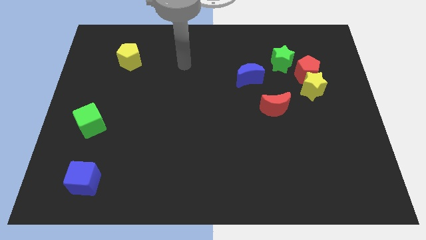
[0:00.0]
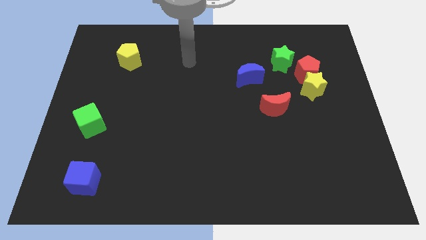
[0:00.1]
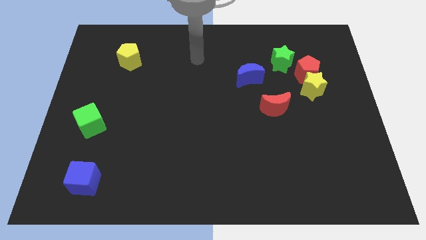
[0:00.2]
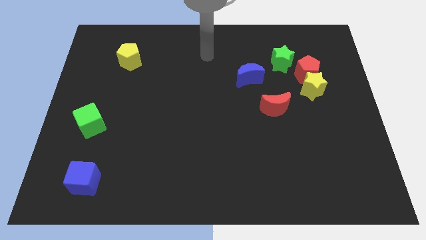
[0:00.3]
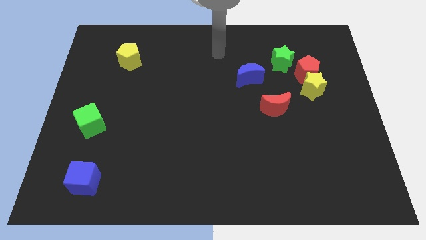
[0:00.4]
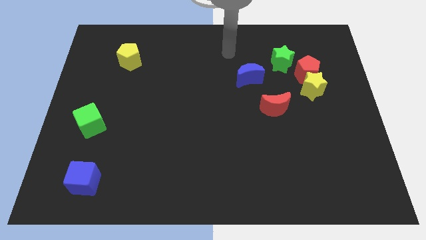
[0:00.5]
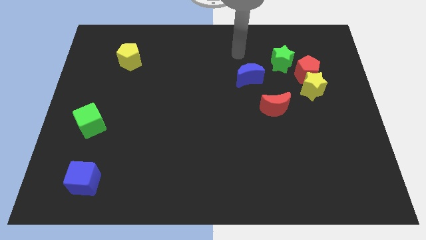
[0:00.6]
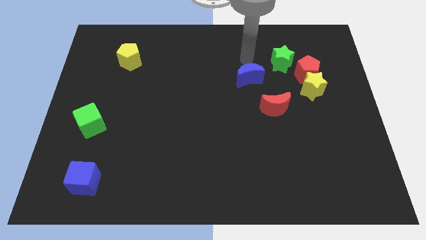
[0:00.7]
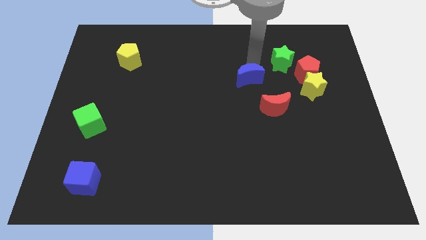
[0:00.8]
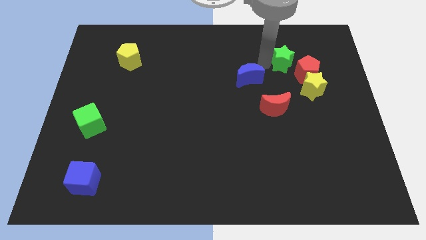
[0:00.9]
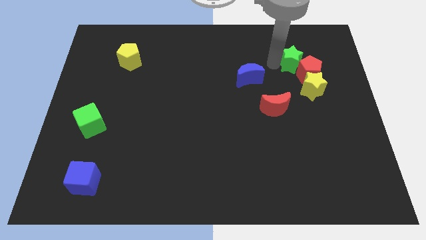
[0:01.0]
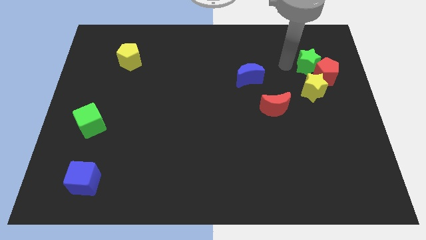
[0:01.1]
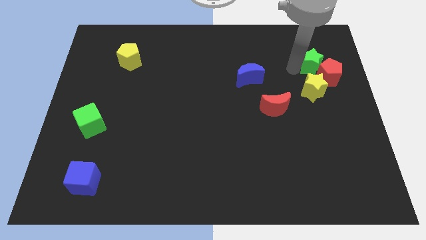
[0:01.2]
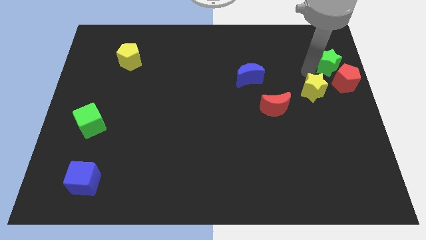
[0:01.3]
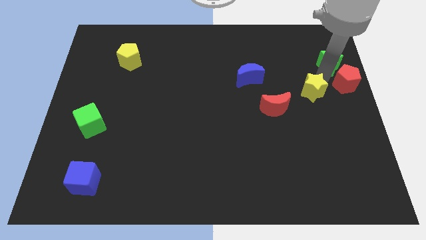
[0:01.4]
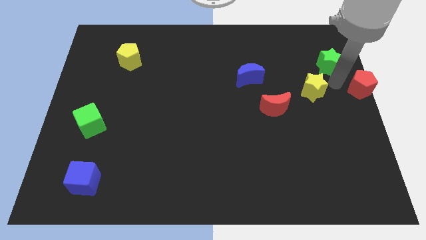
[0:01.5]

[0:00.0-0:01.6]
move the yellow star away from the red pentagon

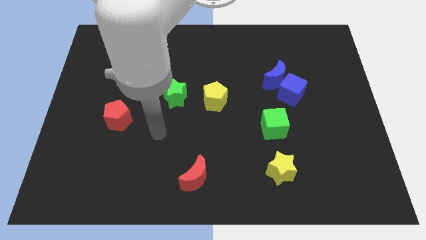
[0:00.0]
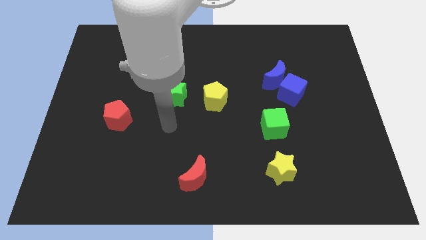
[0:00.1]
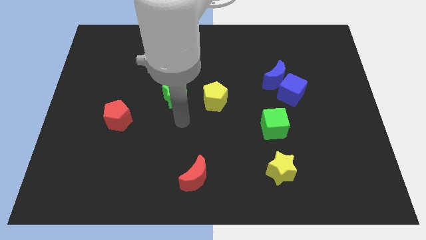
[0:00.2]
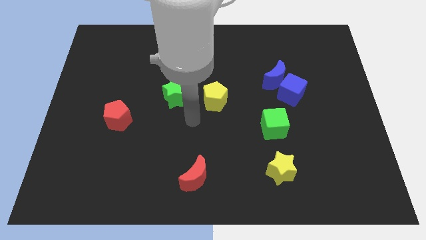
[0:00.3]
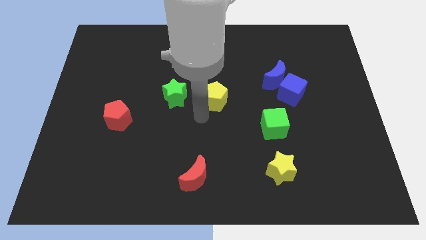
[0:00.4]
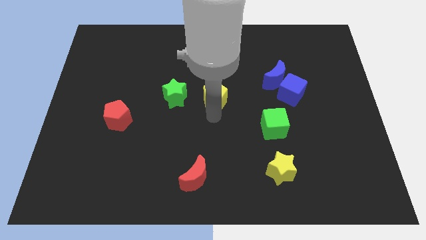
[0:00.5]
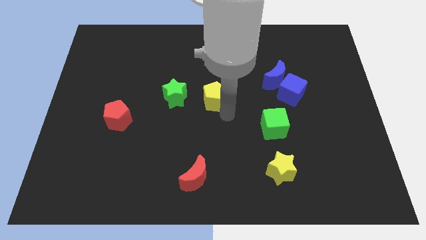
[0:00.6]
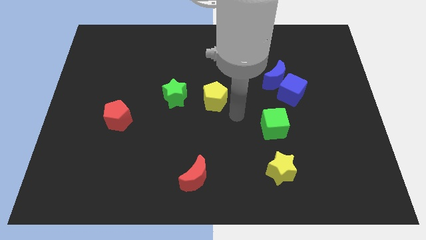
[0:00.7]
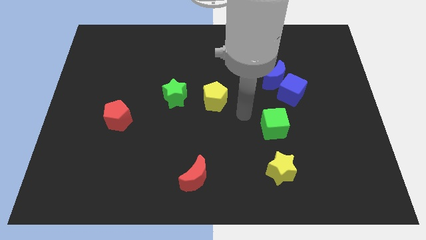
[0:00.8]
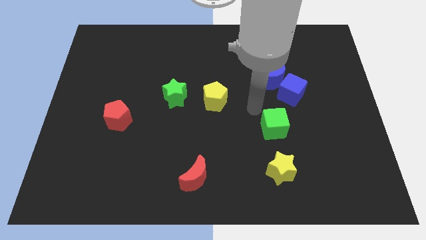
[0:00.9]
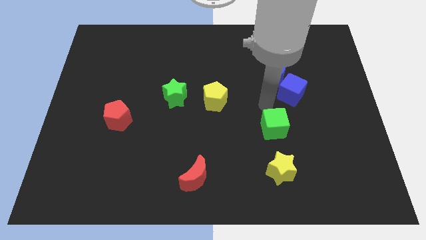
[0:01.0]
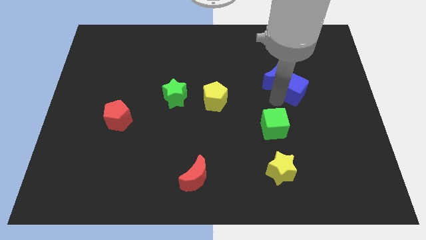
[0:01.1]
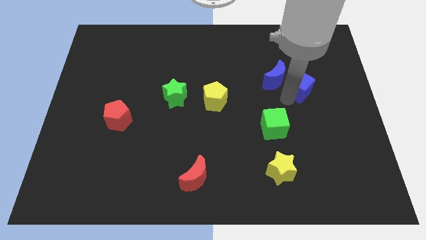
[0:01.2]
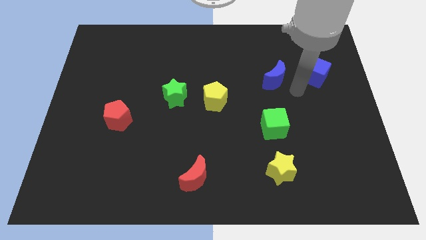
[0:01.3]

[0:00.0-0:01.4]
pull the blue moon apart from the blue cube

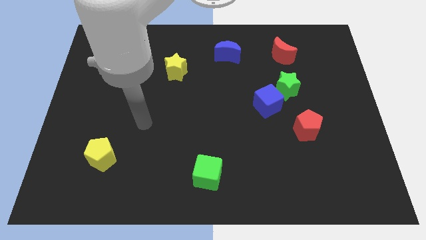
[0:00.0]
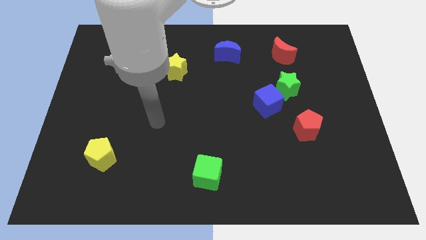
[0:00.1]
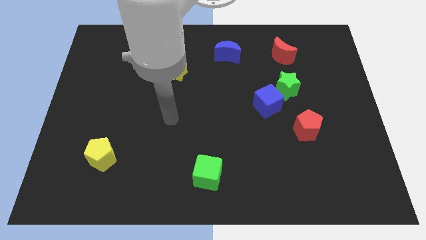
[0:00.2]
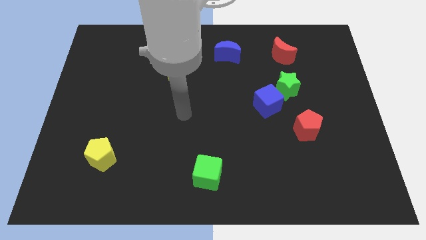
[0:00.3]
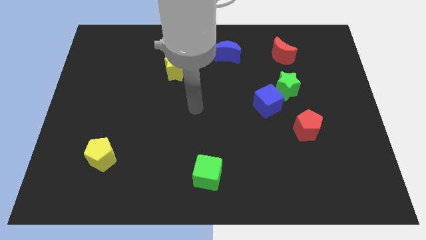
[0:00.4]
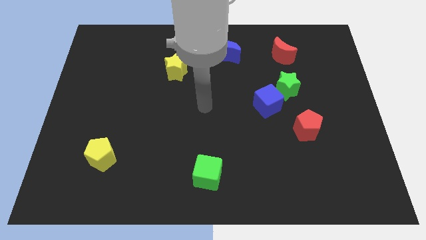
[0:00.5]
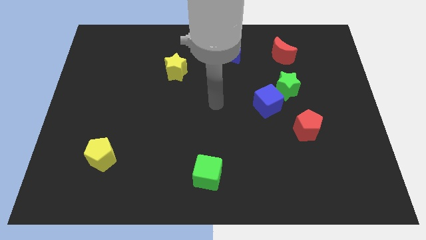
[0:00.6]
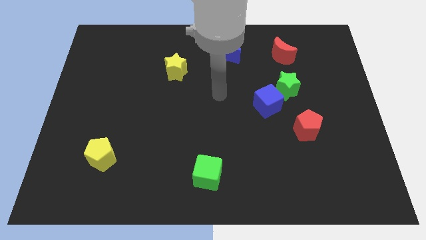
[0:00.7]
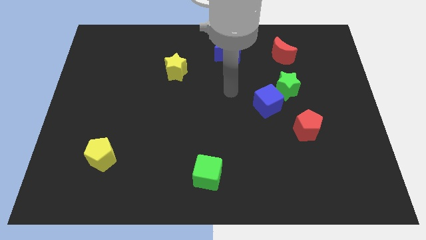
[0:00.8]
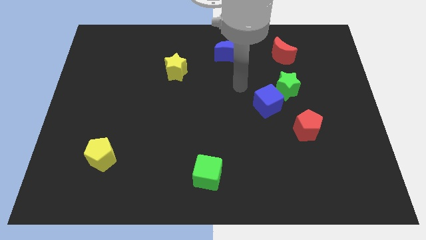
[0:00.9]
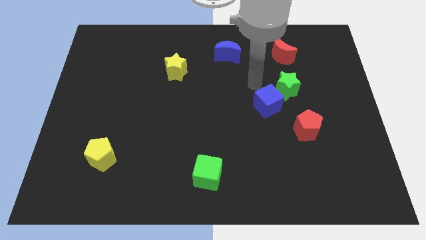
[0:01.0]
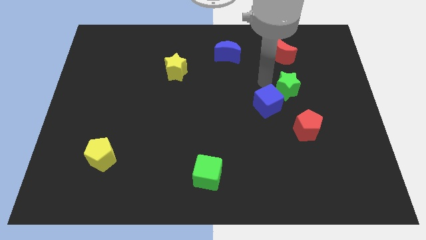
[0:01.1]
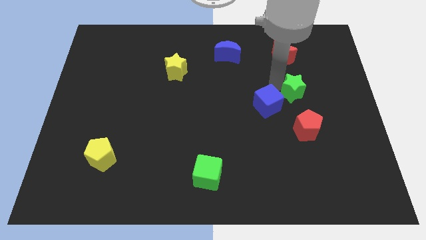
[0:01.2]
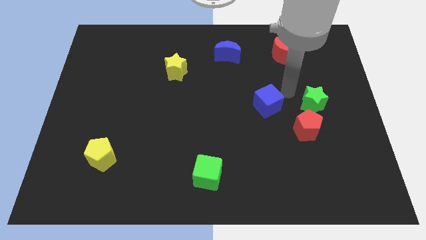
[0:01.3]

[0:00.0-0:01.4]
pull the blue cube apart from the green star

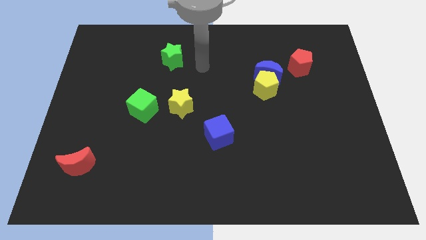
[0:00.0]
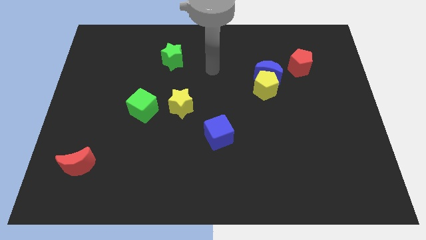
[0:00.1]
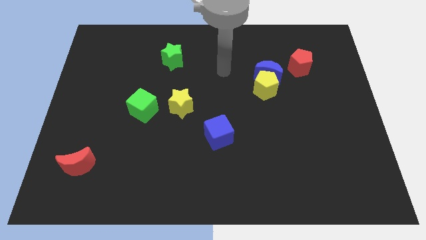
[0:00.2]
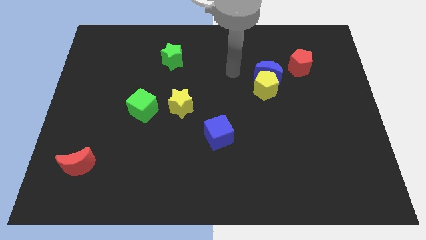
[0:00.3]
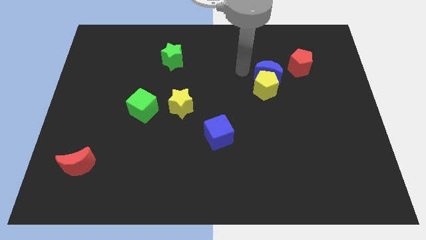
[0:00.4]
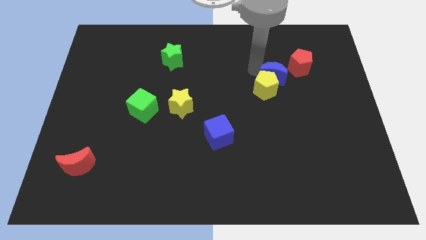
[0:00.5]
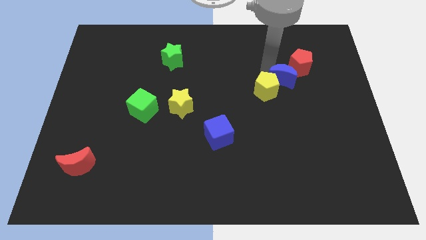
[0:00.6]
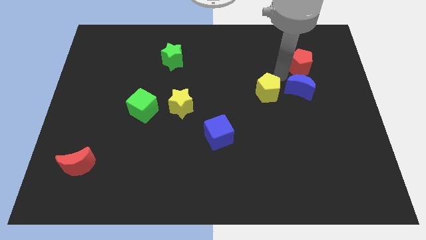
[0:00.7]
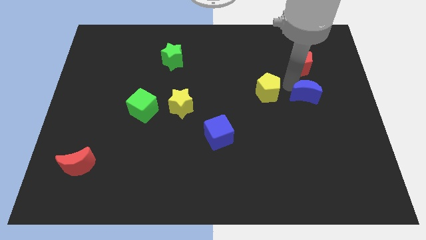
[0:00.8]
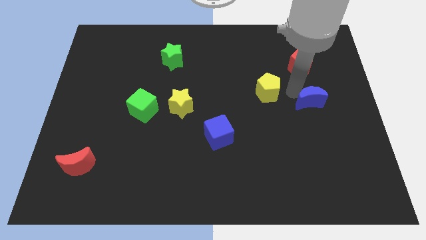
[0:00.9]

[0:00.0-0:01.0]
move the yellow pentagon away from the blue moon

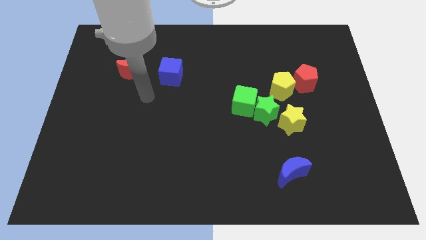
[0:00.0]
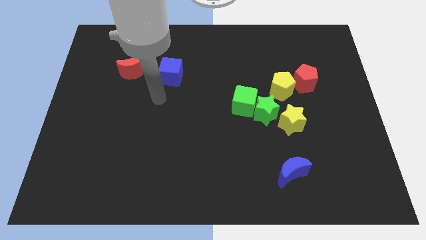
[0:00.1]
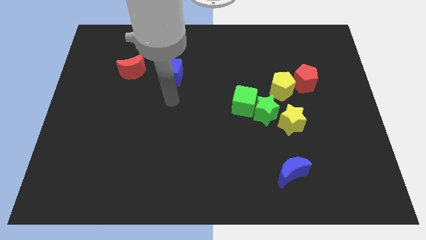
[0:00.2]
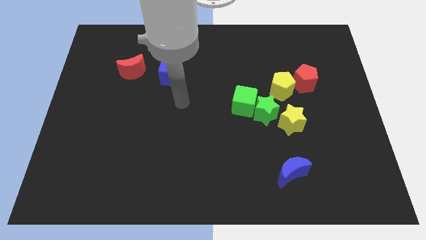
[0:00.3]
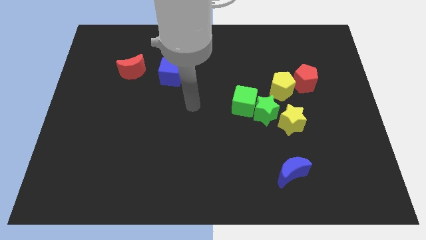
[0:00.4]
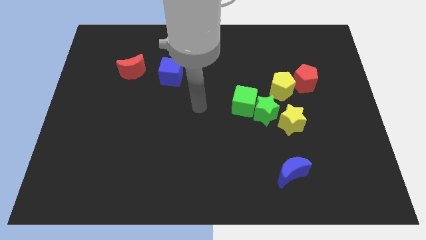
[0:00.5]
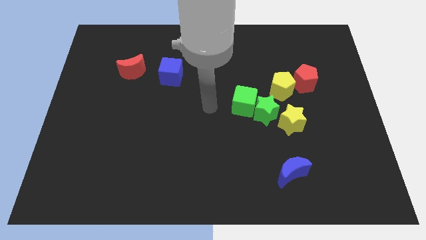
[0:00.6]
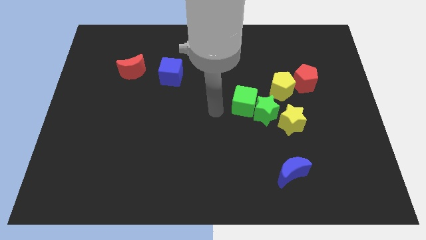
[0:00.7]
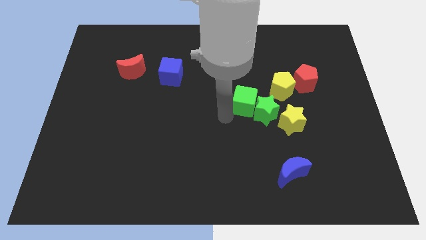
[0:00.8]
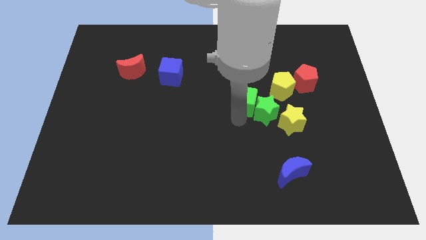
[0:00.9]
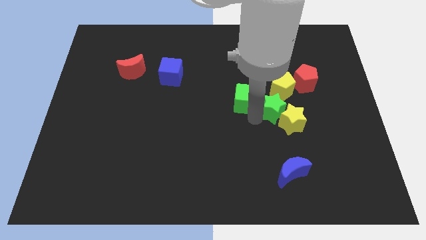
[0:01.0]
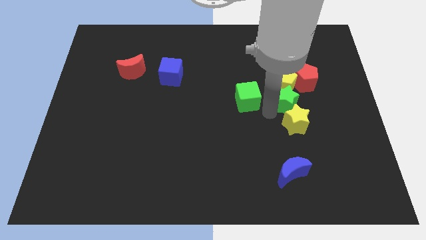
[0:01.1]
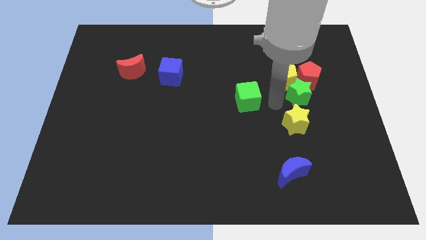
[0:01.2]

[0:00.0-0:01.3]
separate the green cube from the green star

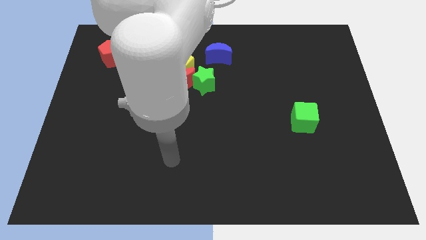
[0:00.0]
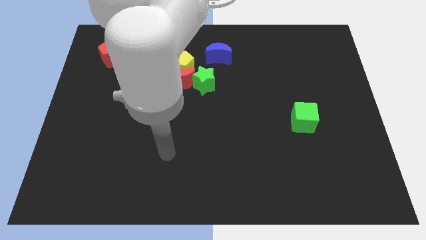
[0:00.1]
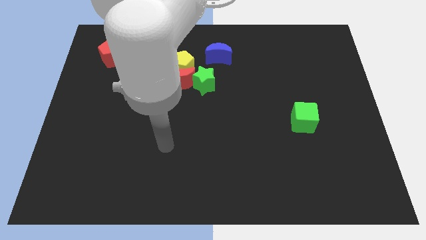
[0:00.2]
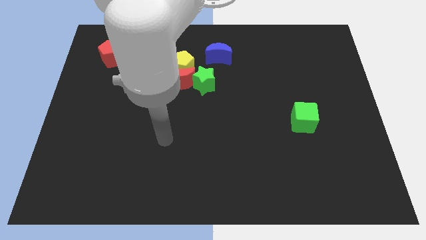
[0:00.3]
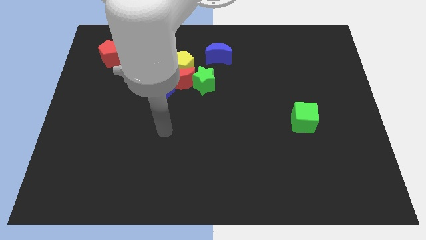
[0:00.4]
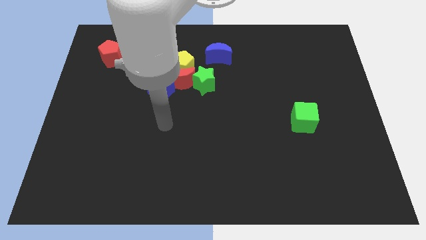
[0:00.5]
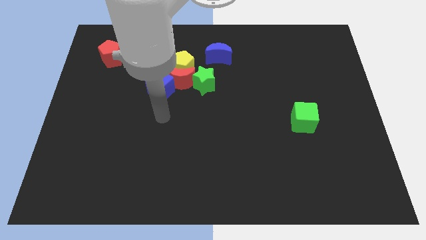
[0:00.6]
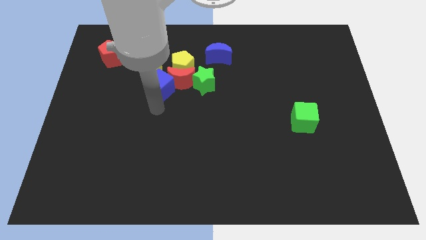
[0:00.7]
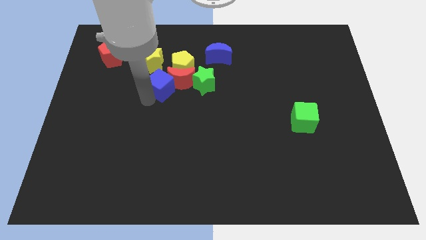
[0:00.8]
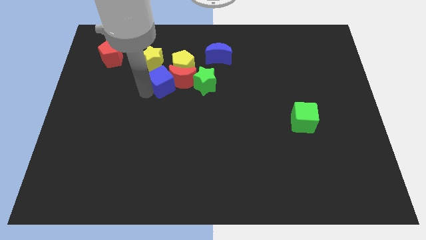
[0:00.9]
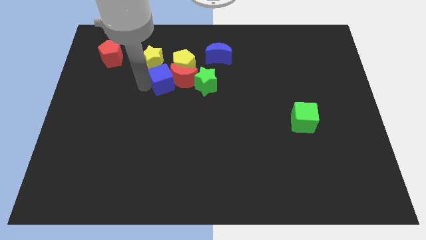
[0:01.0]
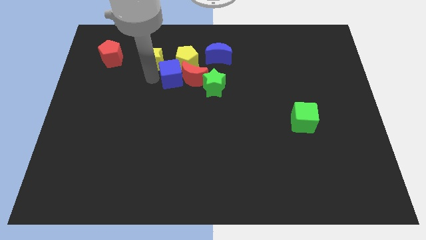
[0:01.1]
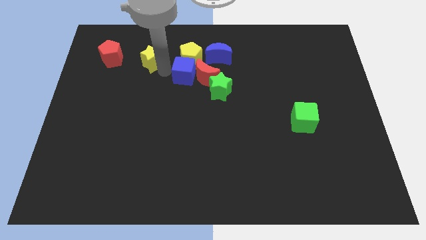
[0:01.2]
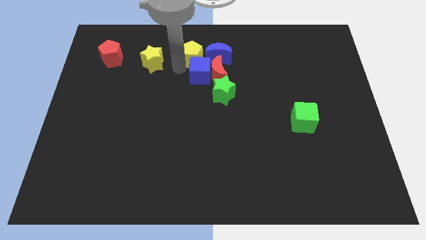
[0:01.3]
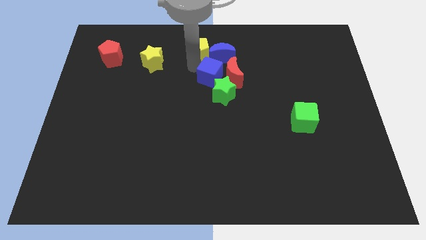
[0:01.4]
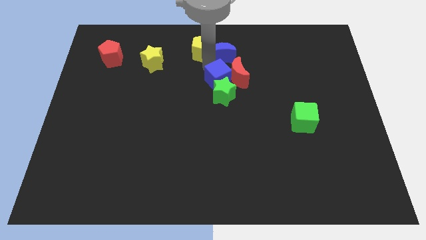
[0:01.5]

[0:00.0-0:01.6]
move the red moon away from the group of blocks

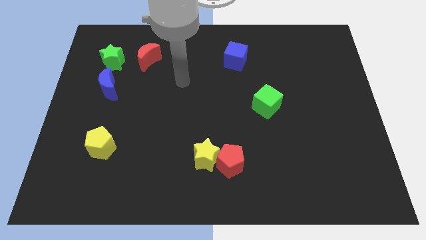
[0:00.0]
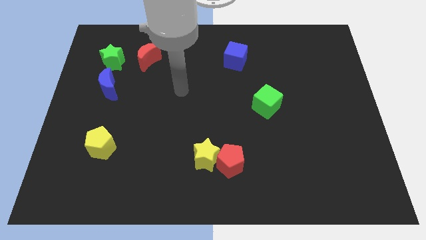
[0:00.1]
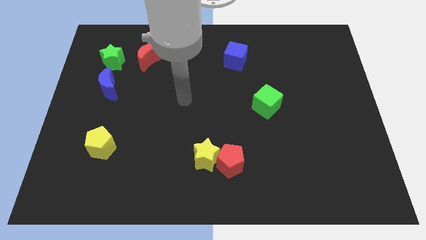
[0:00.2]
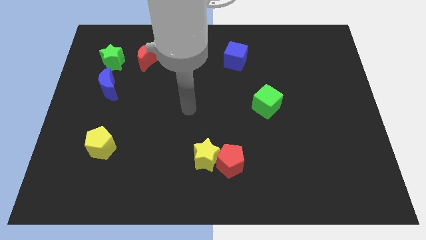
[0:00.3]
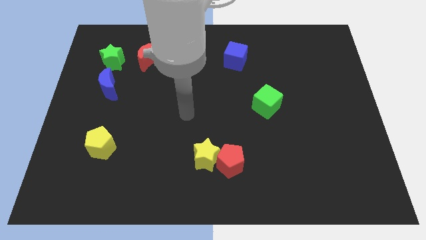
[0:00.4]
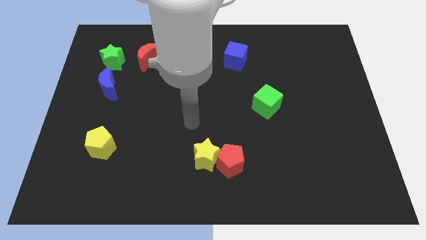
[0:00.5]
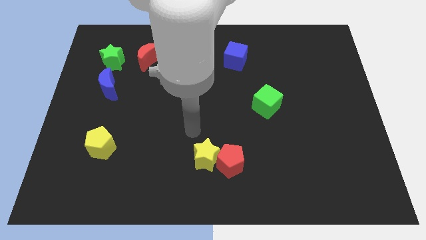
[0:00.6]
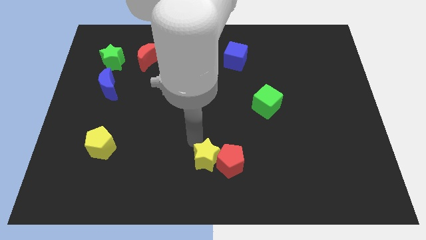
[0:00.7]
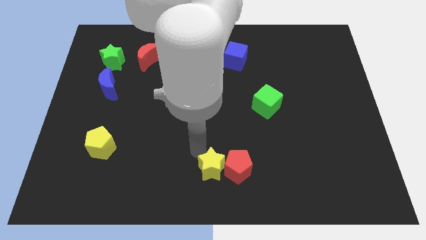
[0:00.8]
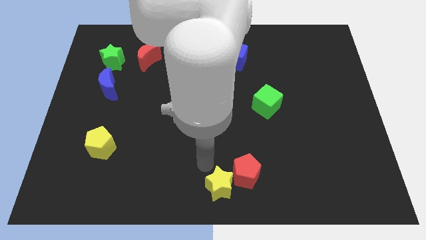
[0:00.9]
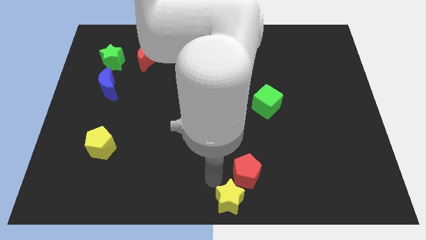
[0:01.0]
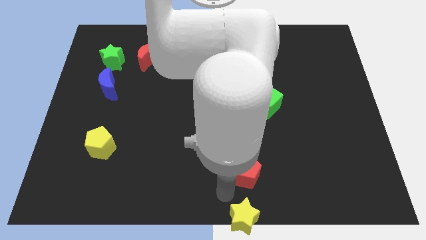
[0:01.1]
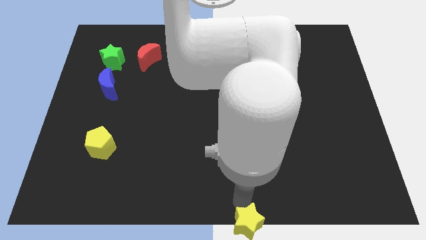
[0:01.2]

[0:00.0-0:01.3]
move the red pentagon away from the yellow star
